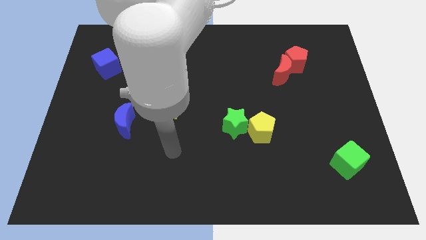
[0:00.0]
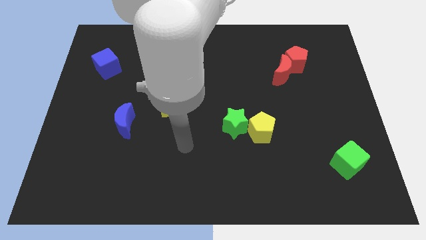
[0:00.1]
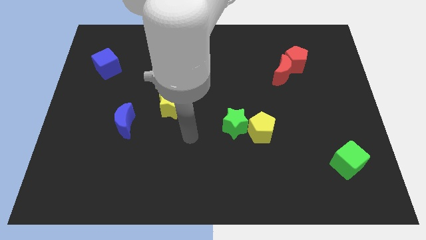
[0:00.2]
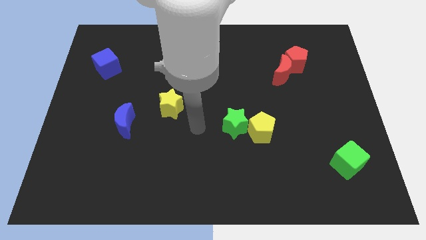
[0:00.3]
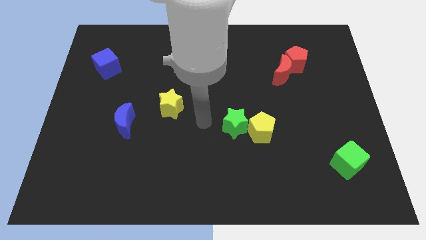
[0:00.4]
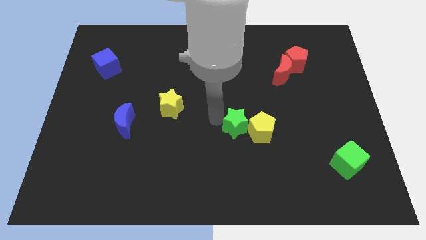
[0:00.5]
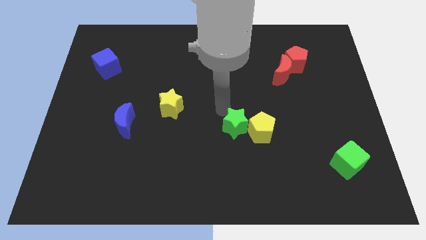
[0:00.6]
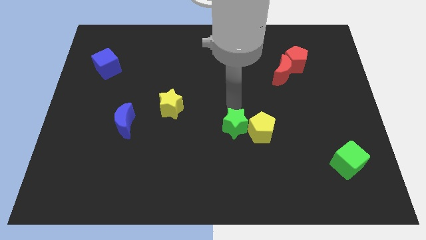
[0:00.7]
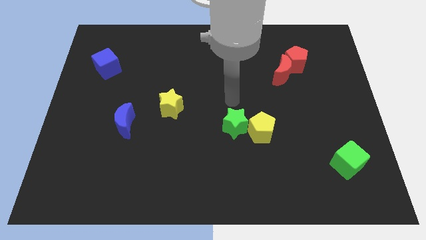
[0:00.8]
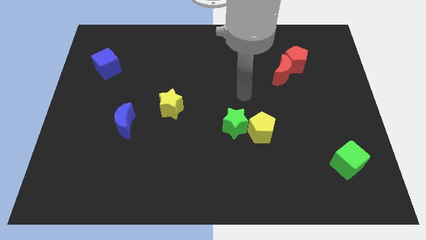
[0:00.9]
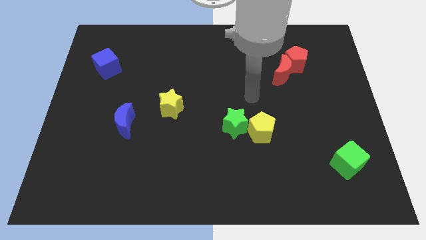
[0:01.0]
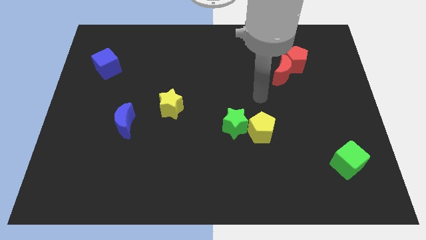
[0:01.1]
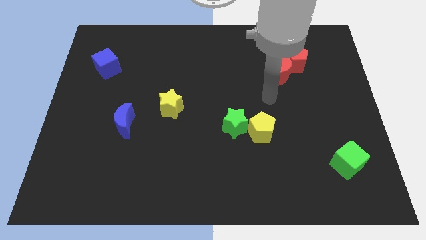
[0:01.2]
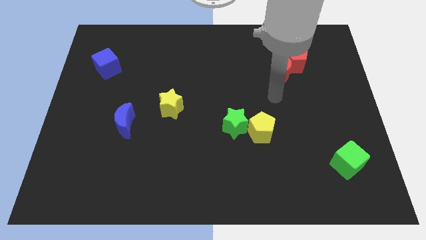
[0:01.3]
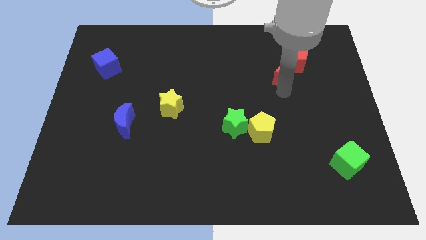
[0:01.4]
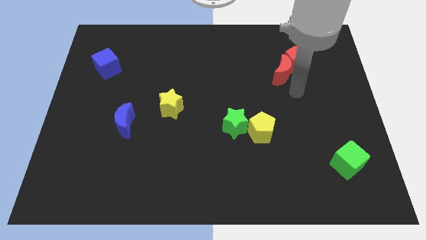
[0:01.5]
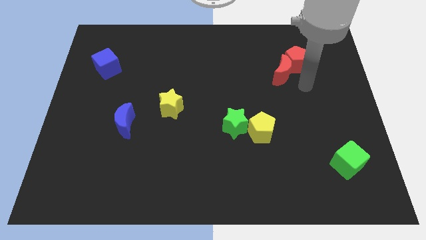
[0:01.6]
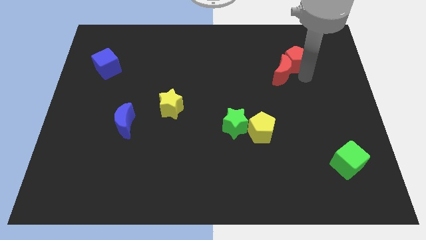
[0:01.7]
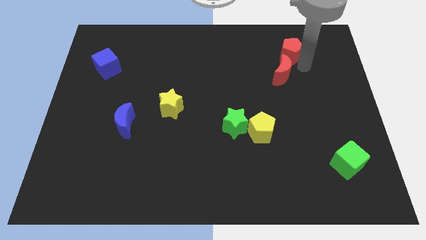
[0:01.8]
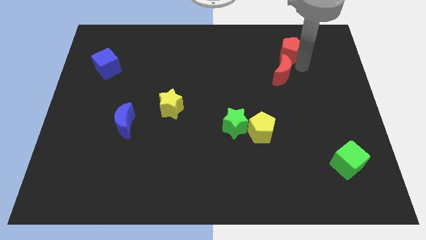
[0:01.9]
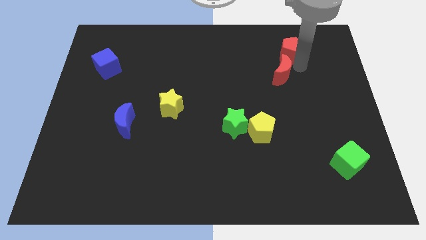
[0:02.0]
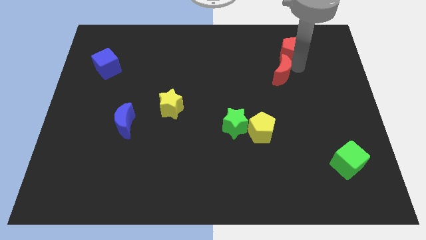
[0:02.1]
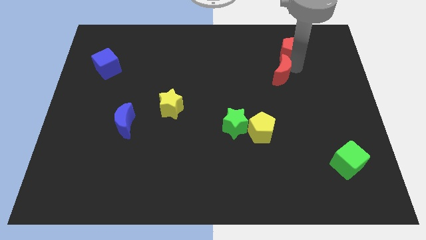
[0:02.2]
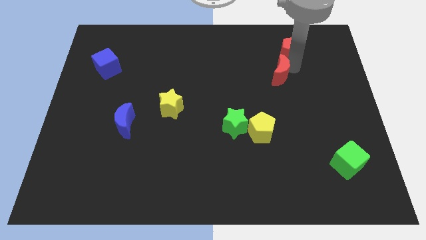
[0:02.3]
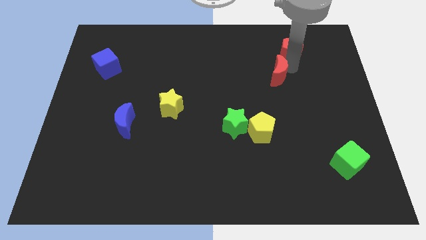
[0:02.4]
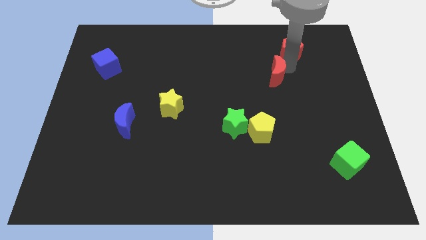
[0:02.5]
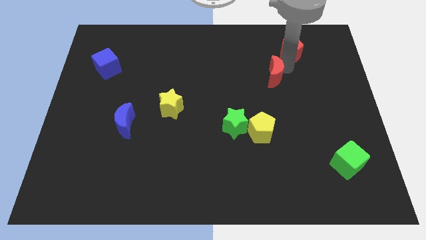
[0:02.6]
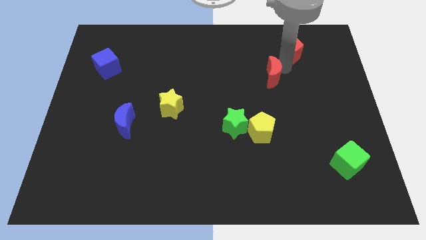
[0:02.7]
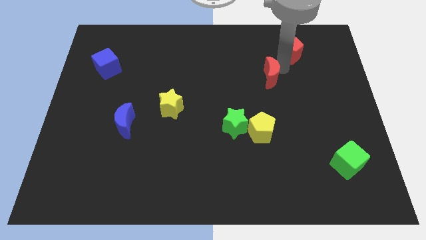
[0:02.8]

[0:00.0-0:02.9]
separate the red moon from the red pentagon

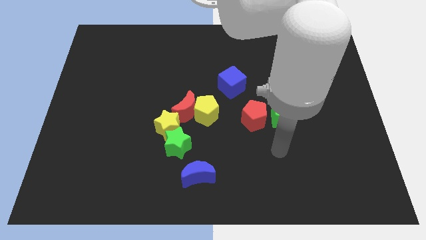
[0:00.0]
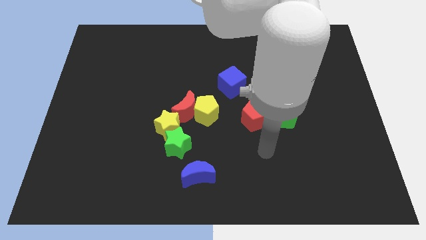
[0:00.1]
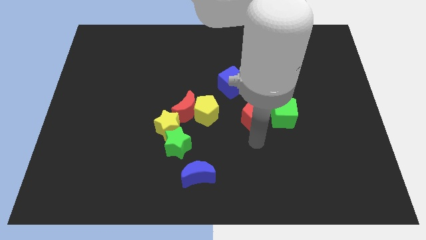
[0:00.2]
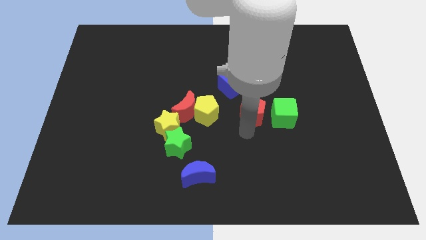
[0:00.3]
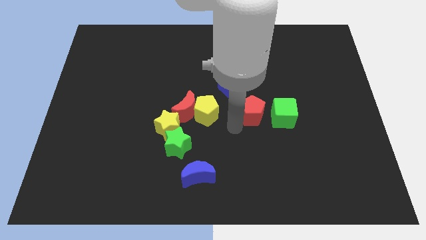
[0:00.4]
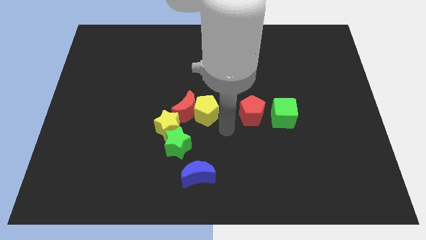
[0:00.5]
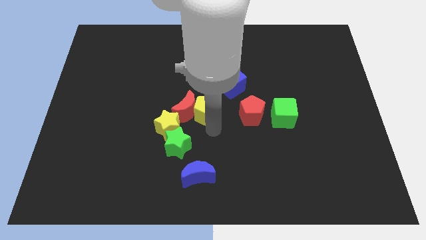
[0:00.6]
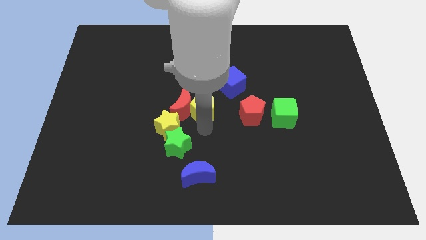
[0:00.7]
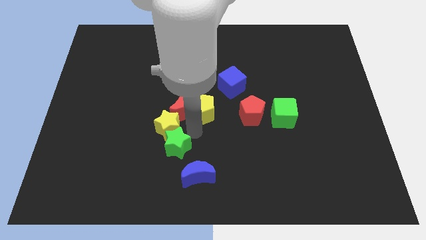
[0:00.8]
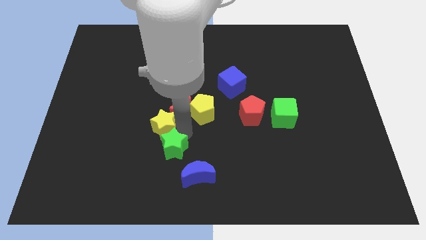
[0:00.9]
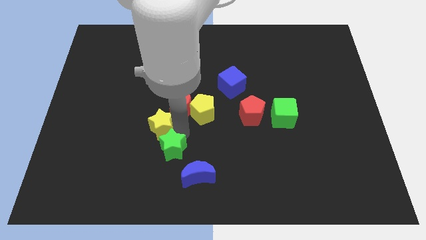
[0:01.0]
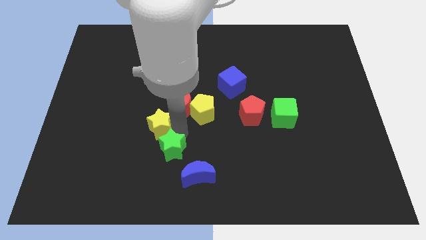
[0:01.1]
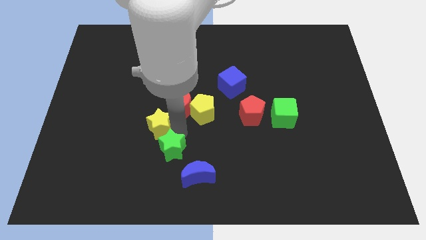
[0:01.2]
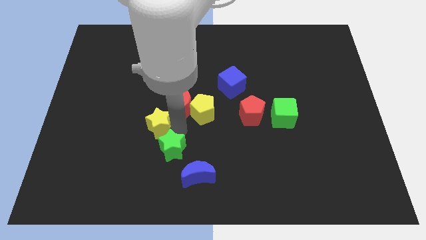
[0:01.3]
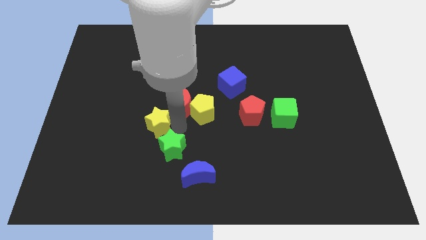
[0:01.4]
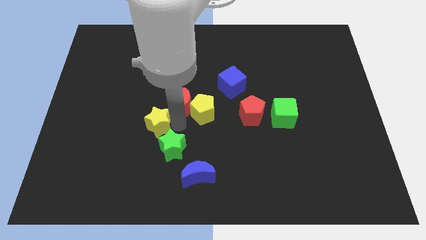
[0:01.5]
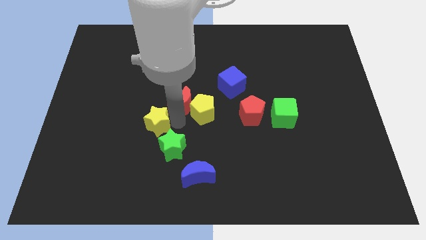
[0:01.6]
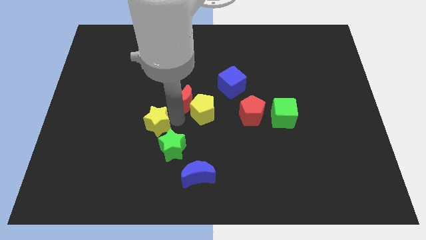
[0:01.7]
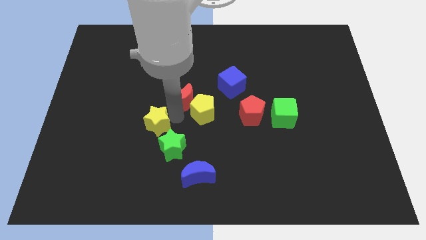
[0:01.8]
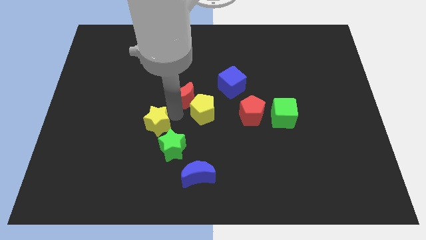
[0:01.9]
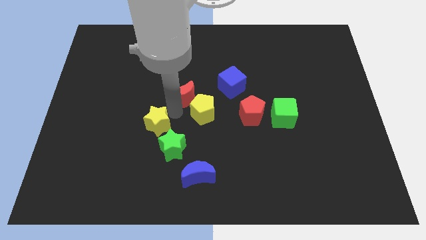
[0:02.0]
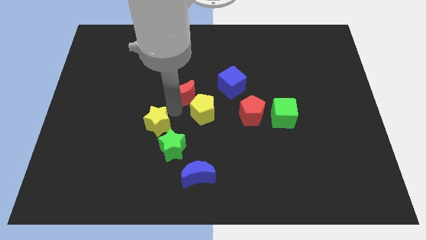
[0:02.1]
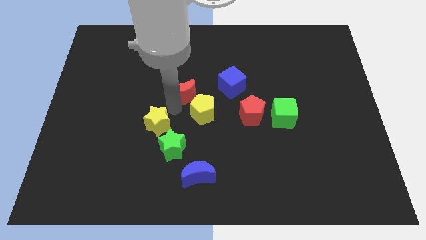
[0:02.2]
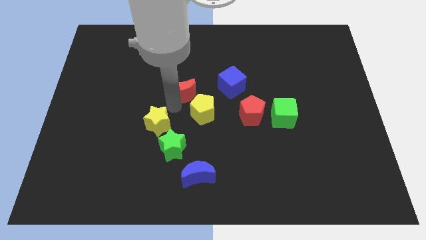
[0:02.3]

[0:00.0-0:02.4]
move the red moon away from the yellow pentagon, yellow star, and green star

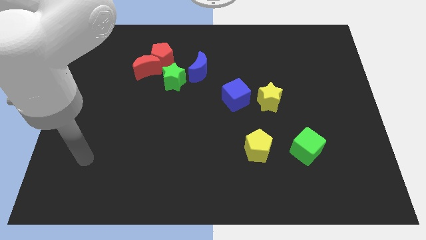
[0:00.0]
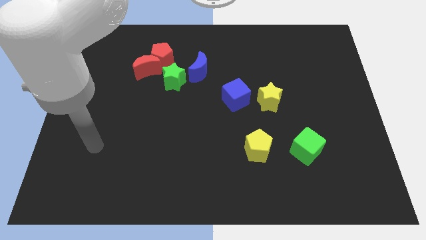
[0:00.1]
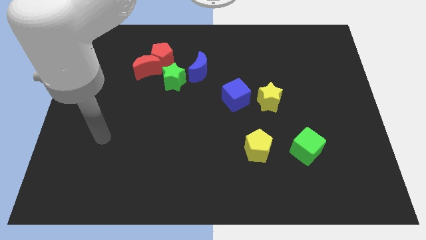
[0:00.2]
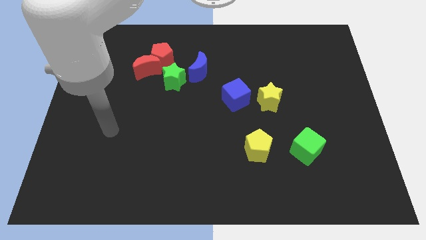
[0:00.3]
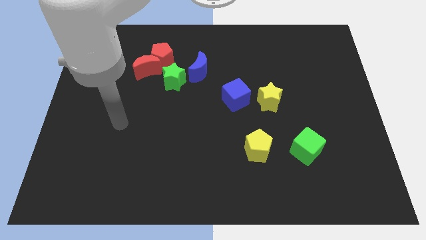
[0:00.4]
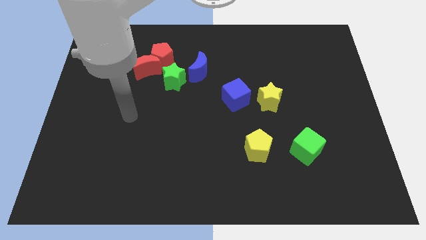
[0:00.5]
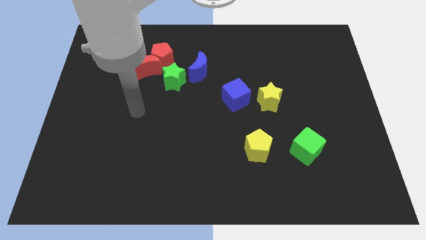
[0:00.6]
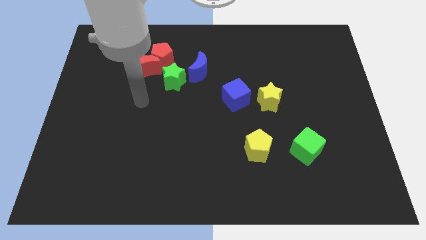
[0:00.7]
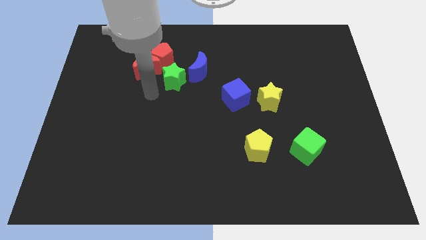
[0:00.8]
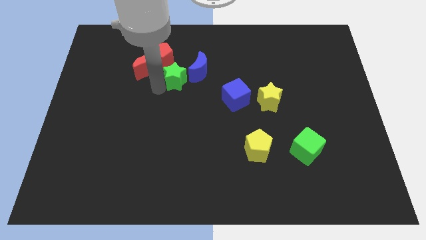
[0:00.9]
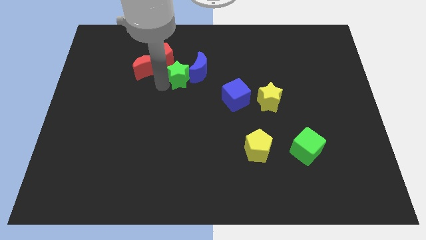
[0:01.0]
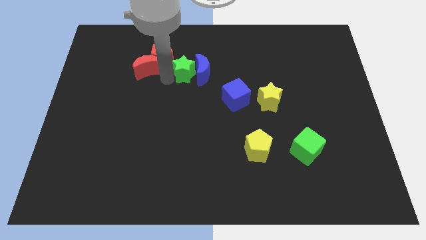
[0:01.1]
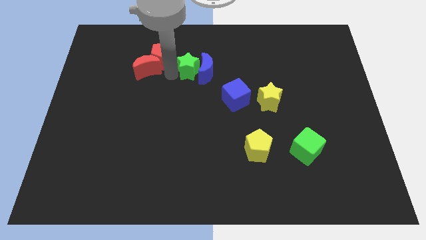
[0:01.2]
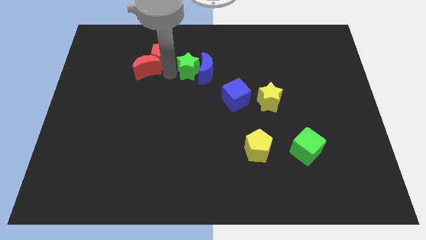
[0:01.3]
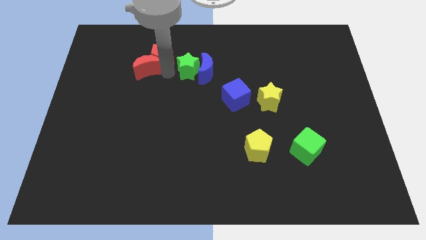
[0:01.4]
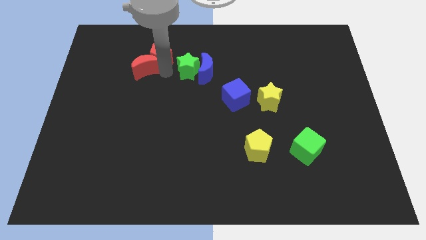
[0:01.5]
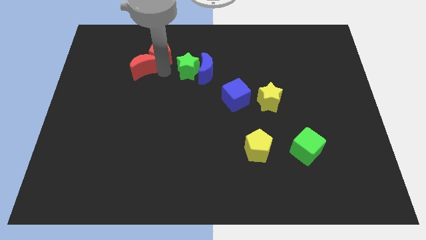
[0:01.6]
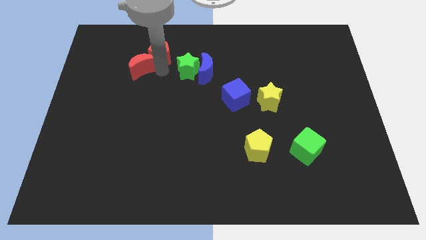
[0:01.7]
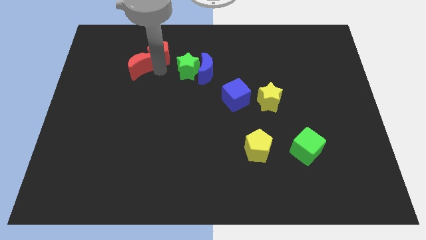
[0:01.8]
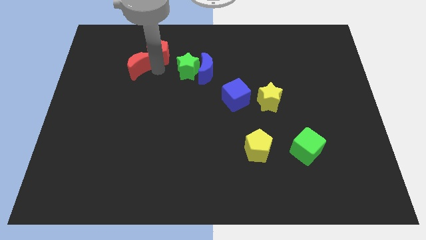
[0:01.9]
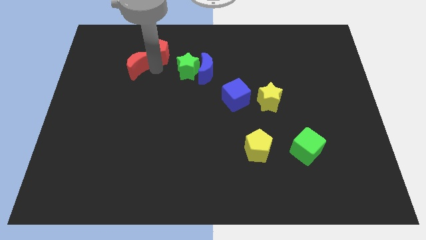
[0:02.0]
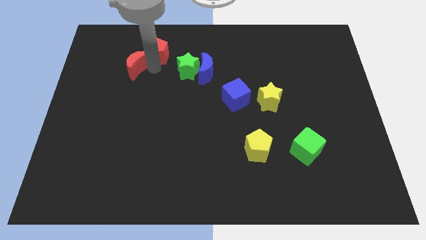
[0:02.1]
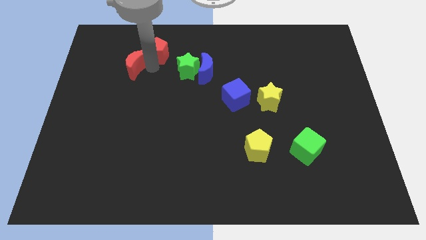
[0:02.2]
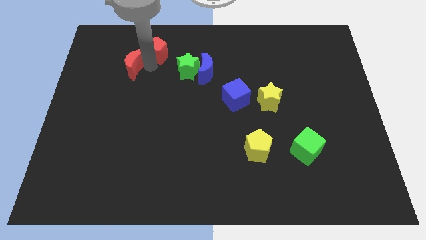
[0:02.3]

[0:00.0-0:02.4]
move the red moon away from the red pentagon and green star

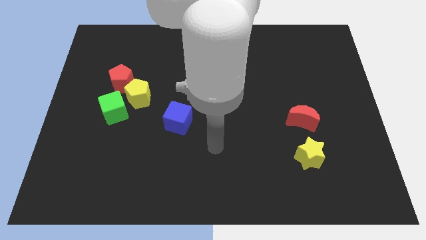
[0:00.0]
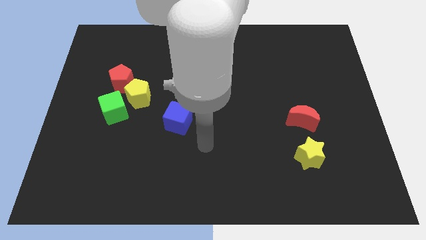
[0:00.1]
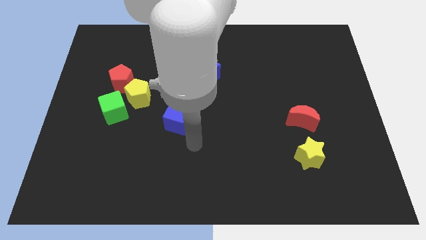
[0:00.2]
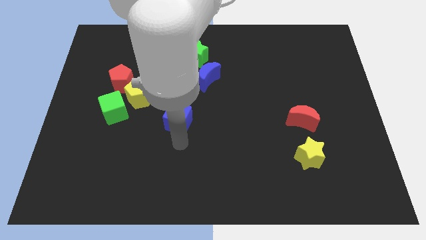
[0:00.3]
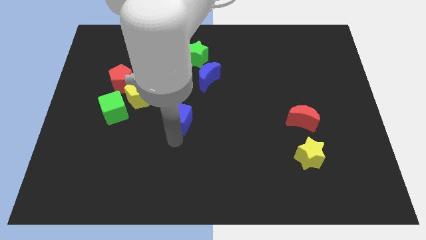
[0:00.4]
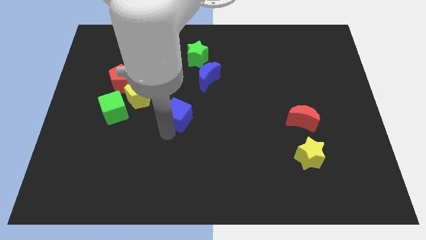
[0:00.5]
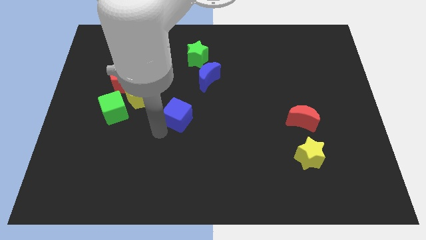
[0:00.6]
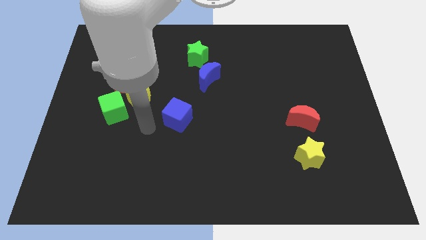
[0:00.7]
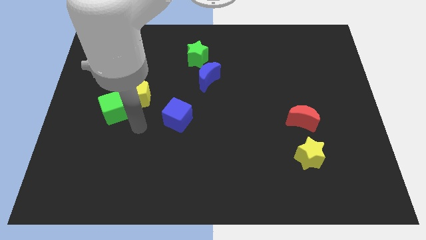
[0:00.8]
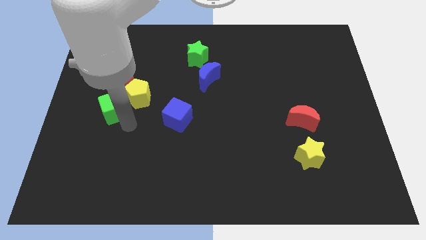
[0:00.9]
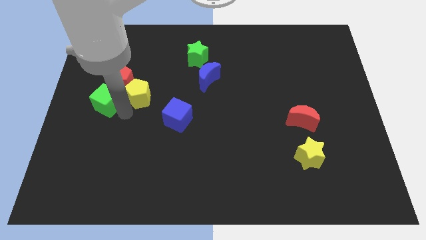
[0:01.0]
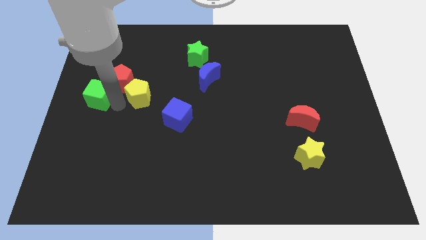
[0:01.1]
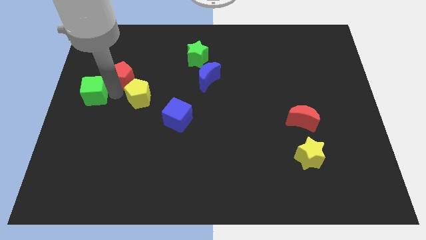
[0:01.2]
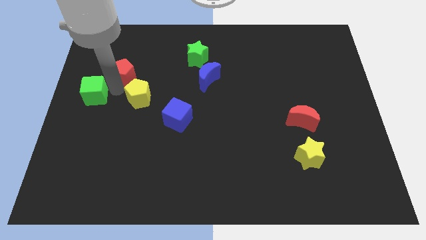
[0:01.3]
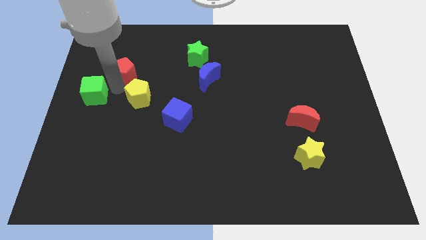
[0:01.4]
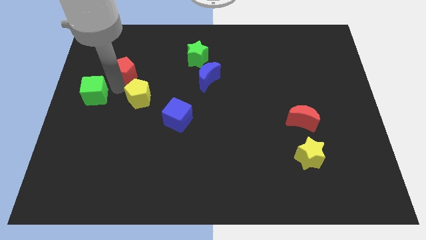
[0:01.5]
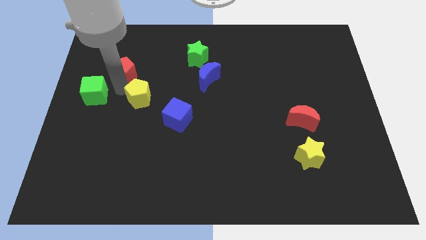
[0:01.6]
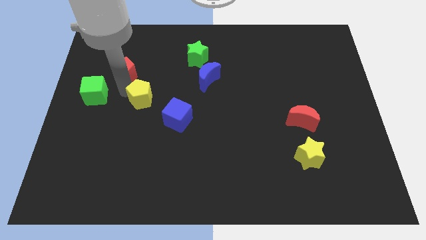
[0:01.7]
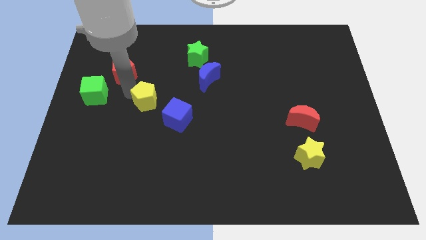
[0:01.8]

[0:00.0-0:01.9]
pull the yellow pentagon apart from the red pentagon and green cube
